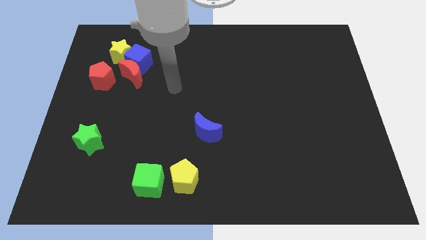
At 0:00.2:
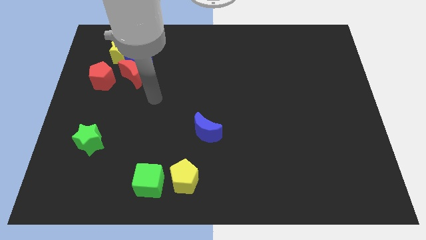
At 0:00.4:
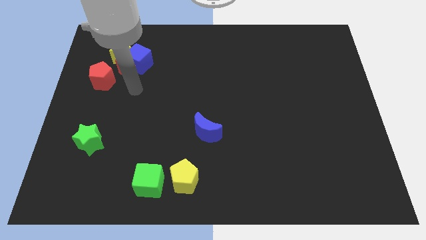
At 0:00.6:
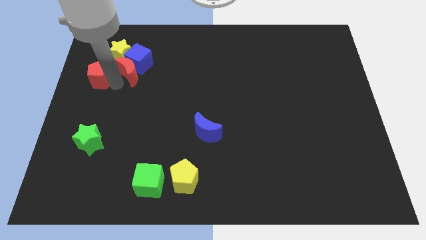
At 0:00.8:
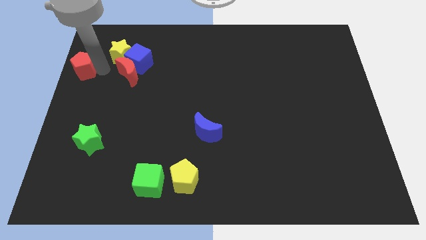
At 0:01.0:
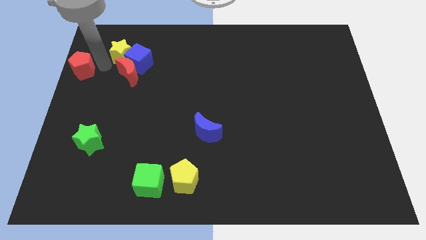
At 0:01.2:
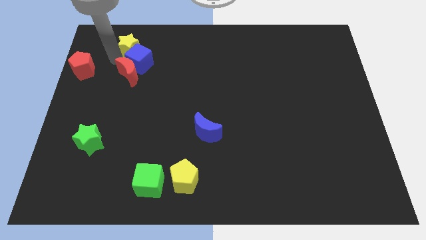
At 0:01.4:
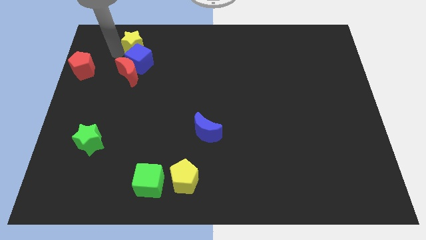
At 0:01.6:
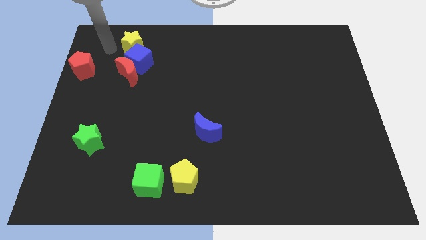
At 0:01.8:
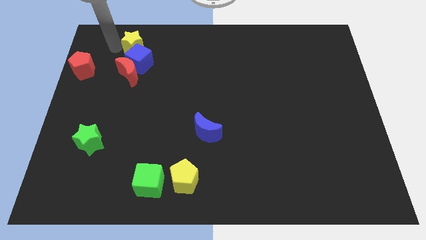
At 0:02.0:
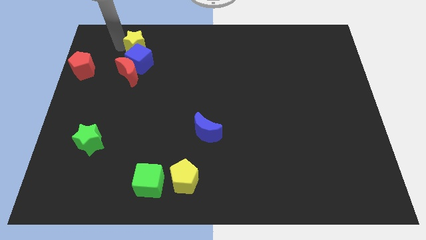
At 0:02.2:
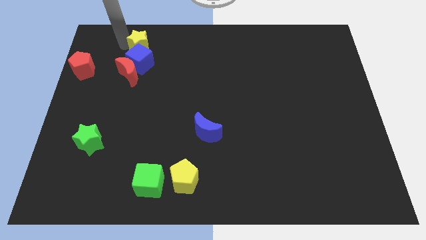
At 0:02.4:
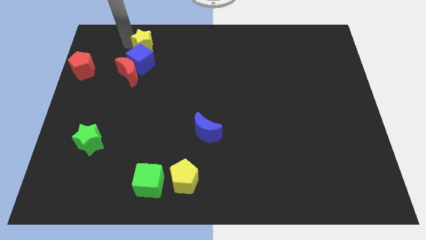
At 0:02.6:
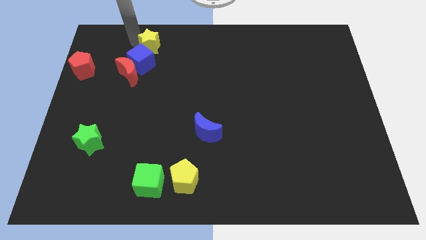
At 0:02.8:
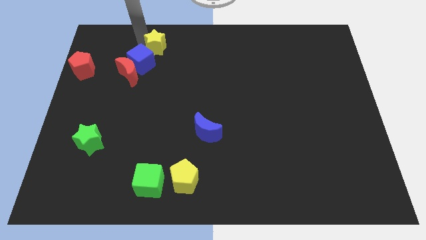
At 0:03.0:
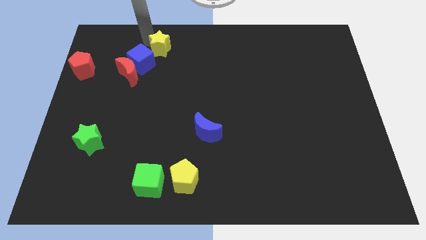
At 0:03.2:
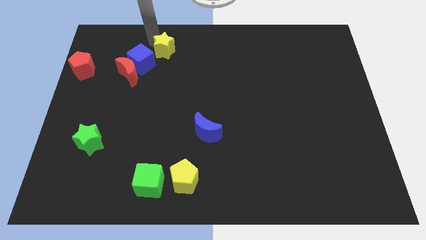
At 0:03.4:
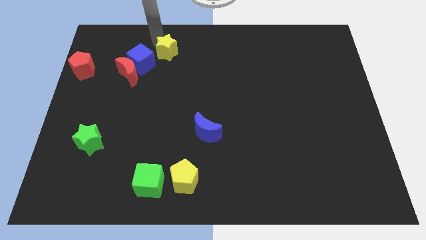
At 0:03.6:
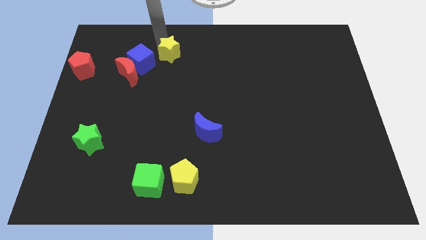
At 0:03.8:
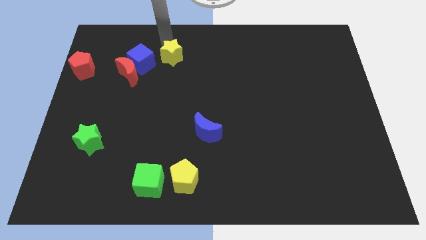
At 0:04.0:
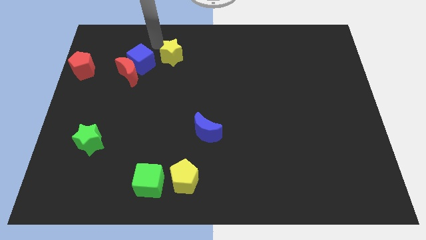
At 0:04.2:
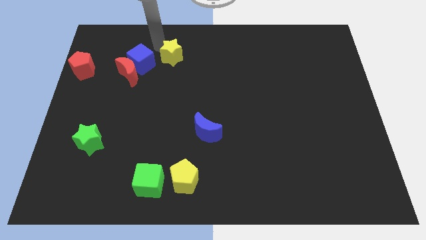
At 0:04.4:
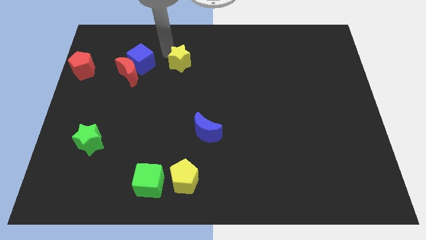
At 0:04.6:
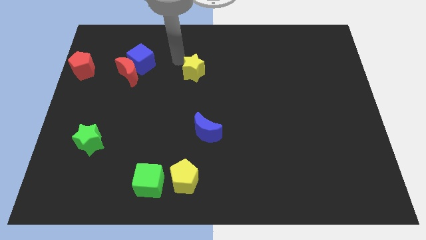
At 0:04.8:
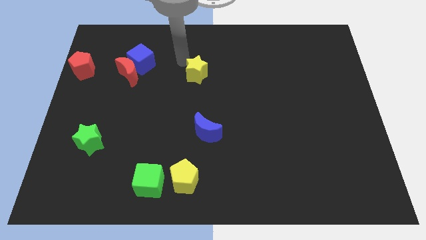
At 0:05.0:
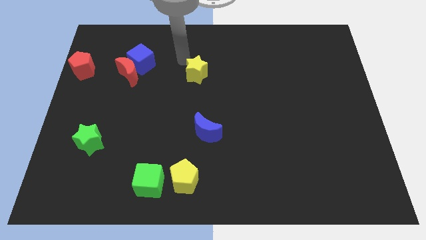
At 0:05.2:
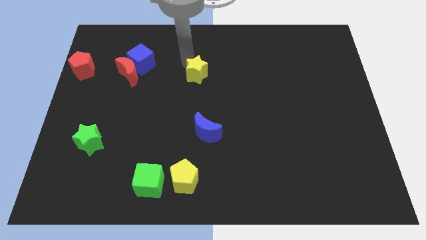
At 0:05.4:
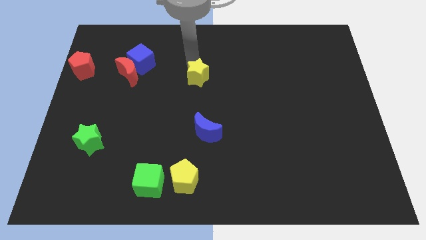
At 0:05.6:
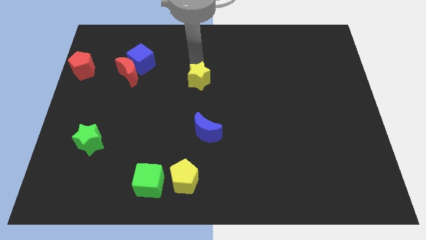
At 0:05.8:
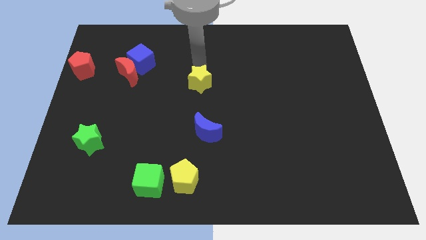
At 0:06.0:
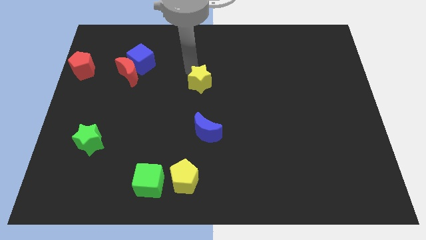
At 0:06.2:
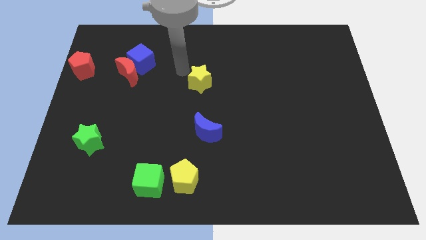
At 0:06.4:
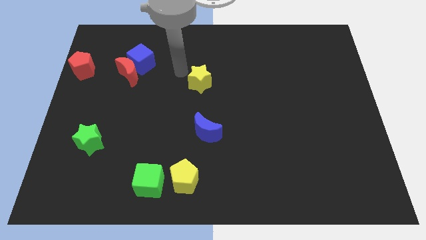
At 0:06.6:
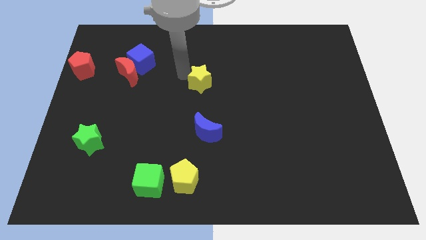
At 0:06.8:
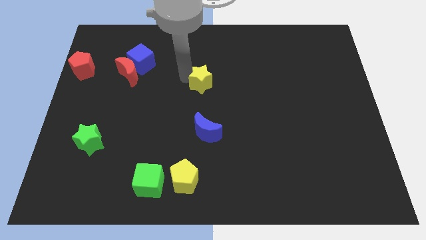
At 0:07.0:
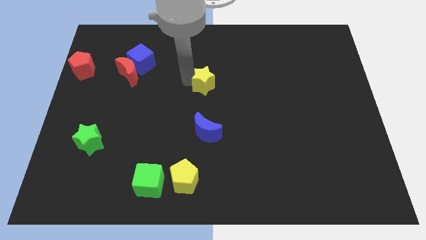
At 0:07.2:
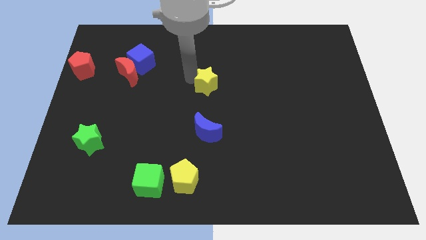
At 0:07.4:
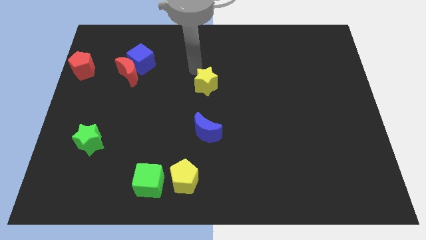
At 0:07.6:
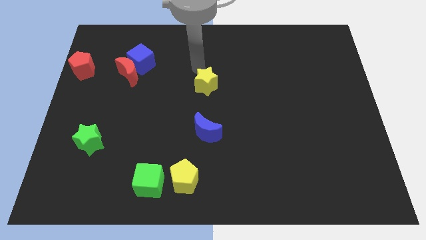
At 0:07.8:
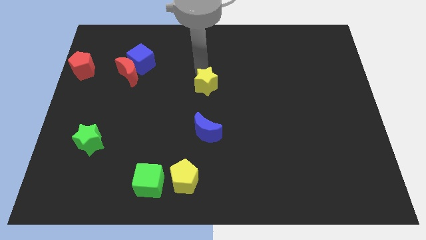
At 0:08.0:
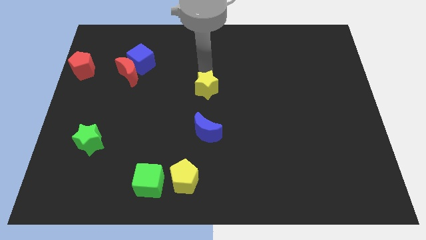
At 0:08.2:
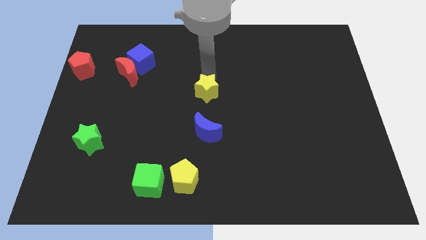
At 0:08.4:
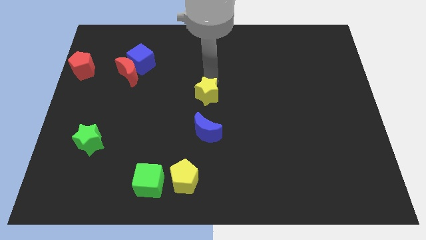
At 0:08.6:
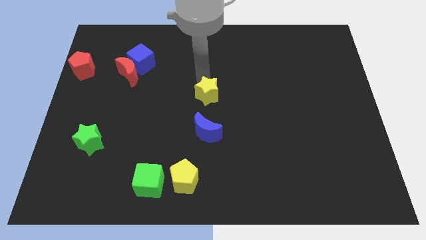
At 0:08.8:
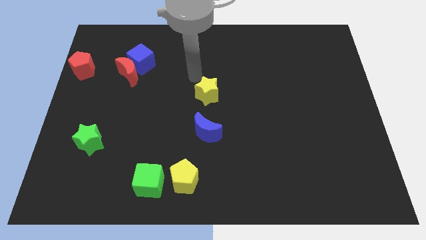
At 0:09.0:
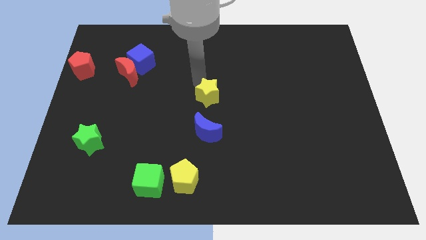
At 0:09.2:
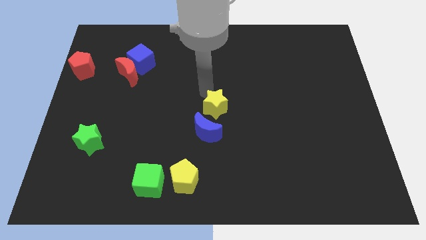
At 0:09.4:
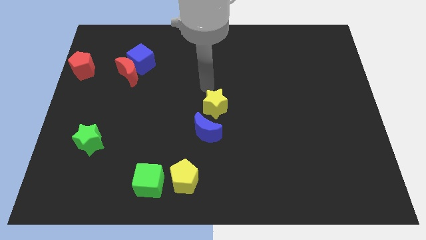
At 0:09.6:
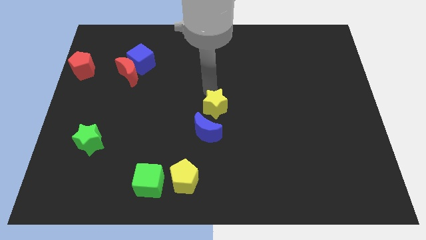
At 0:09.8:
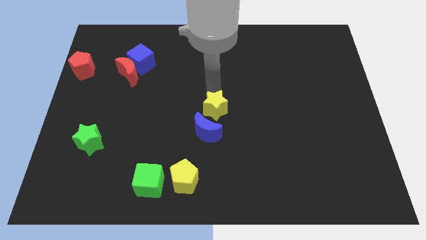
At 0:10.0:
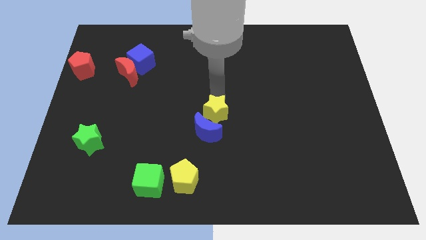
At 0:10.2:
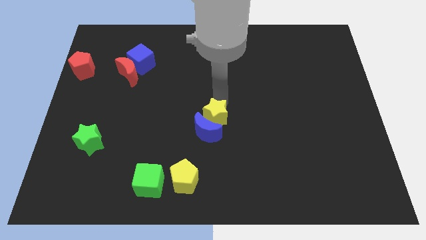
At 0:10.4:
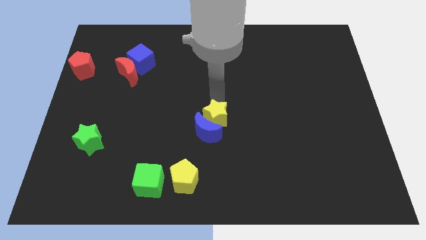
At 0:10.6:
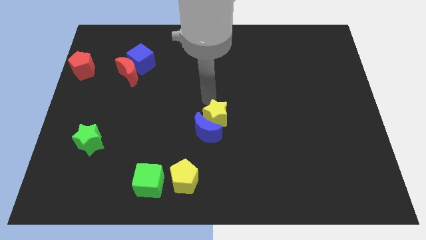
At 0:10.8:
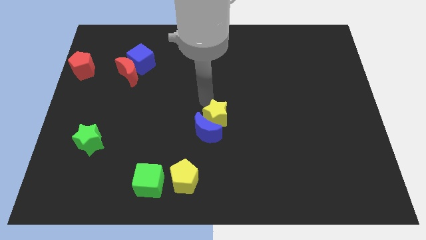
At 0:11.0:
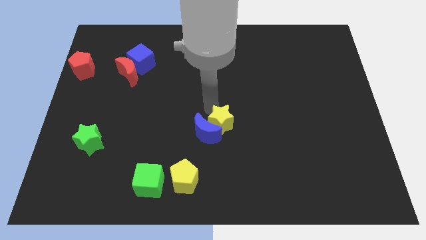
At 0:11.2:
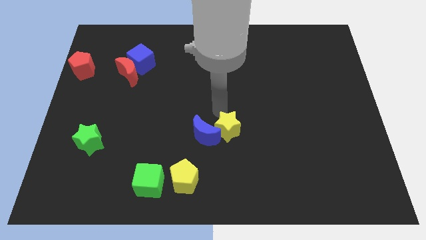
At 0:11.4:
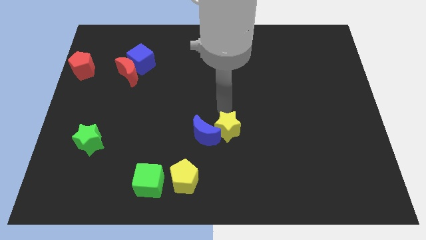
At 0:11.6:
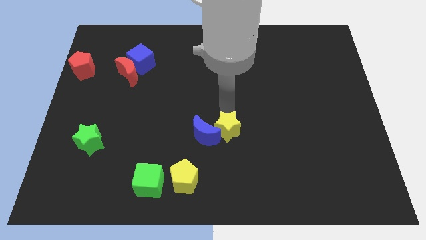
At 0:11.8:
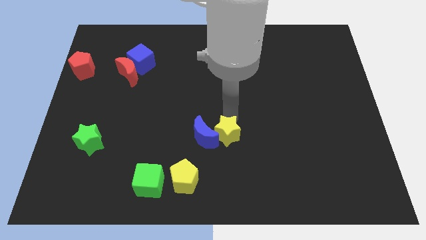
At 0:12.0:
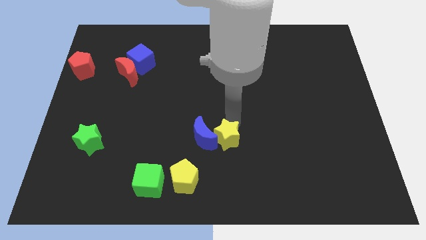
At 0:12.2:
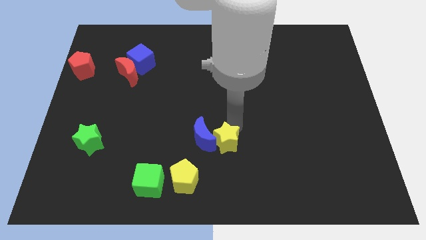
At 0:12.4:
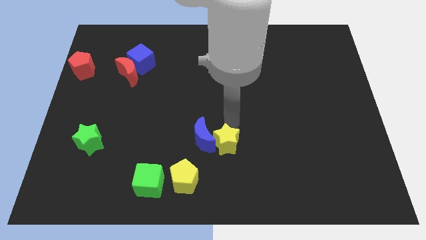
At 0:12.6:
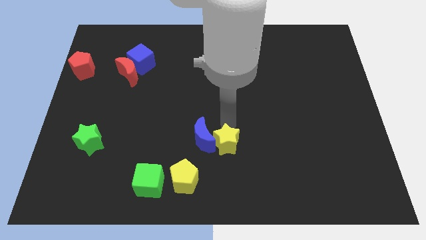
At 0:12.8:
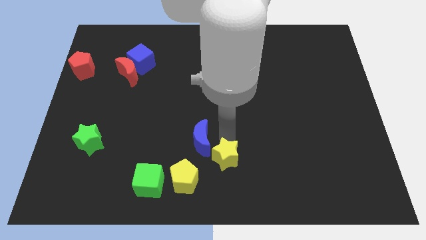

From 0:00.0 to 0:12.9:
slide the yellow star to the bottom side
